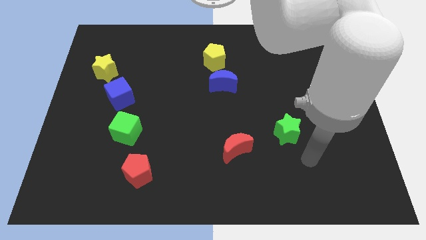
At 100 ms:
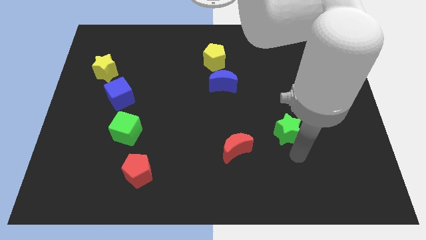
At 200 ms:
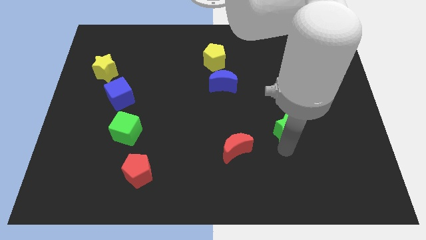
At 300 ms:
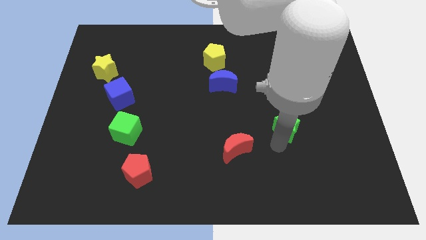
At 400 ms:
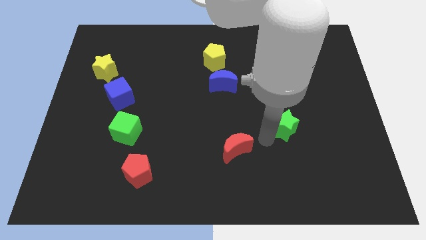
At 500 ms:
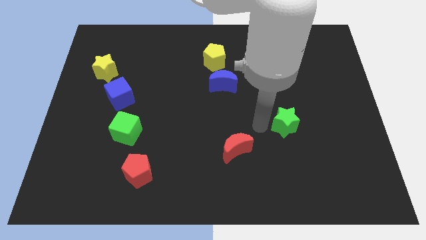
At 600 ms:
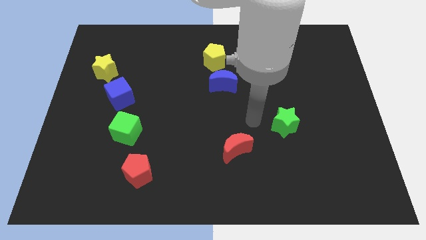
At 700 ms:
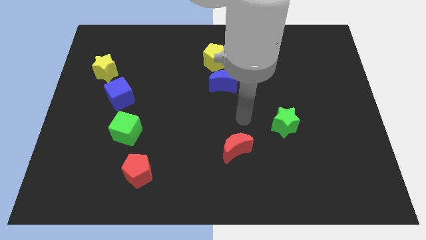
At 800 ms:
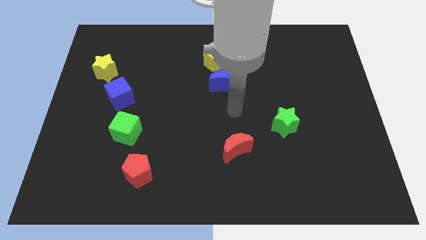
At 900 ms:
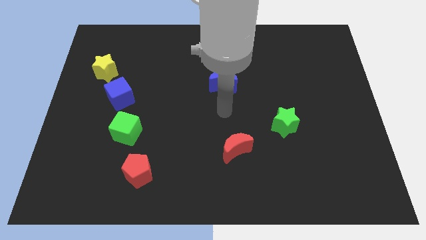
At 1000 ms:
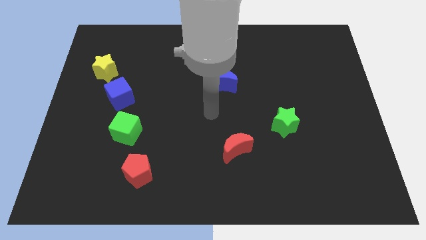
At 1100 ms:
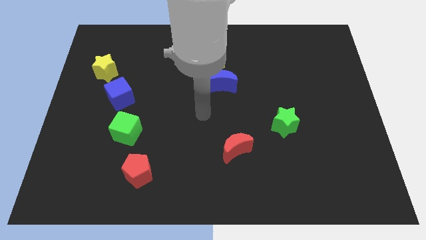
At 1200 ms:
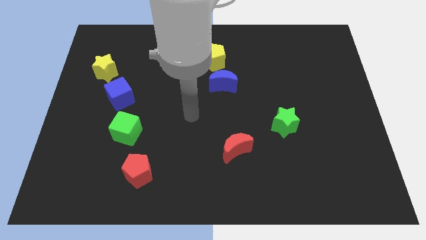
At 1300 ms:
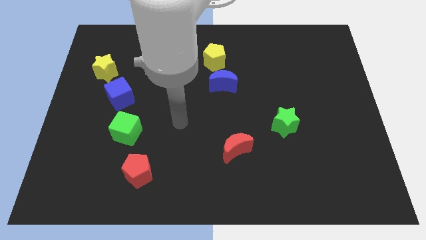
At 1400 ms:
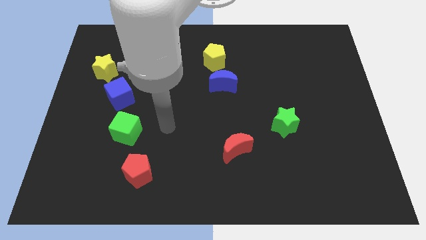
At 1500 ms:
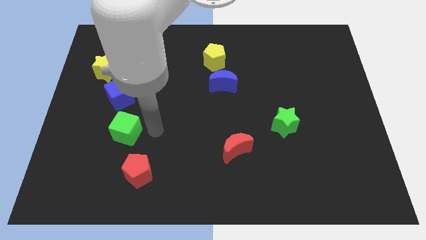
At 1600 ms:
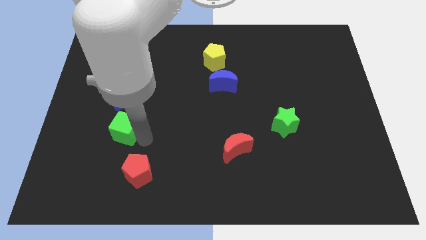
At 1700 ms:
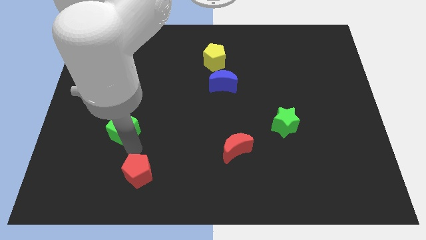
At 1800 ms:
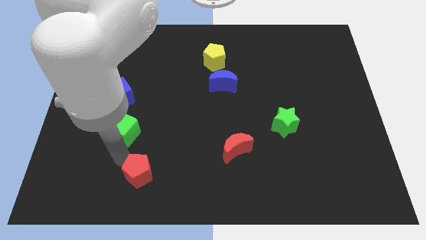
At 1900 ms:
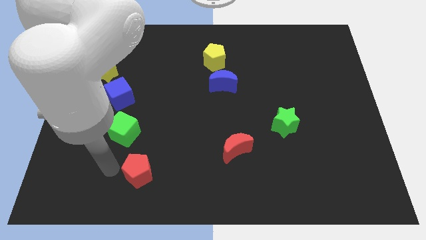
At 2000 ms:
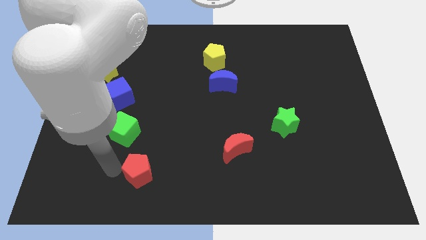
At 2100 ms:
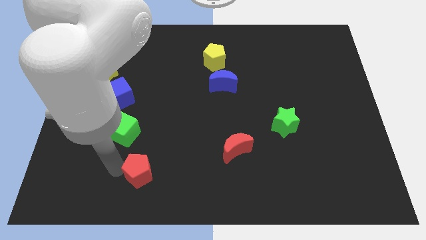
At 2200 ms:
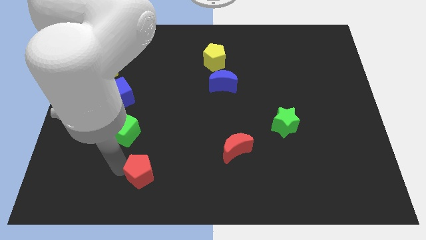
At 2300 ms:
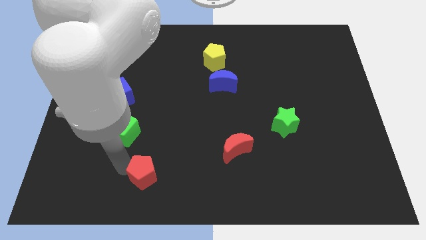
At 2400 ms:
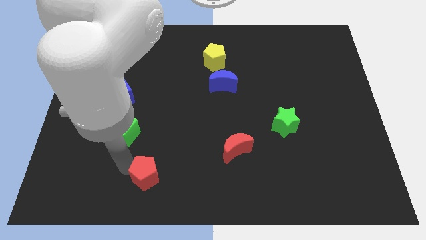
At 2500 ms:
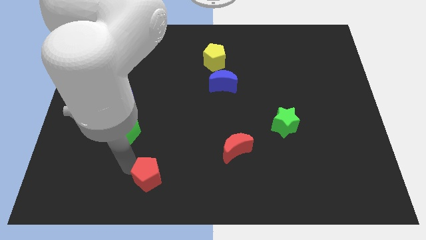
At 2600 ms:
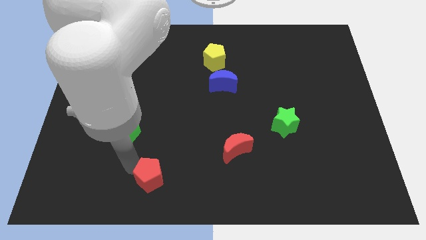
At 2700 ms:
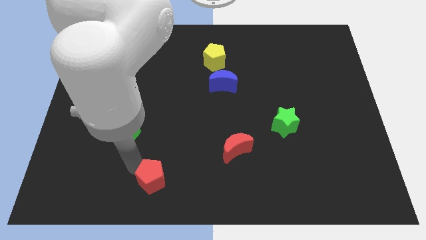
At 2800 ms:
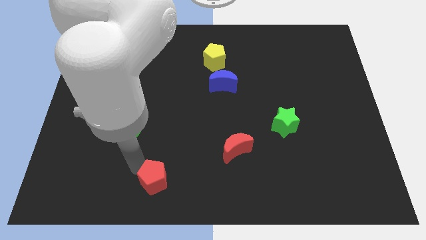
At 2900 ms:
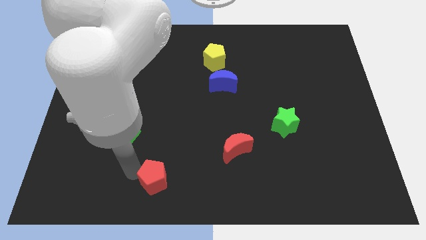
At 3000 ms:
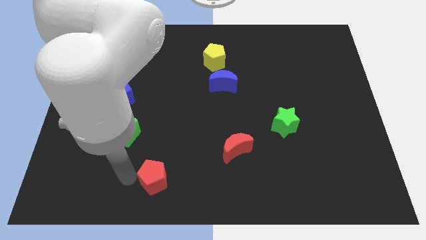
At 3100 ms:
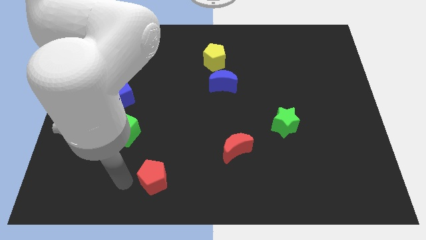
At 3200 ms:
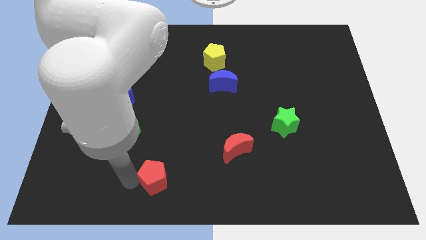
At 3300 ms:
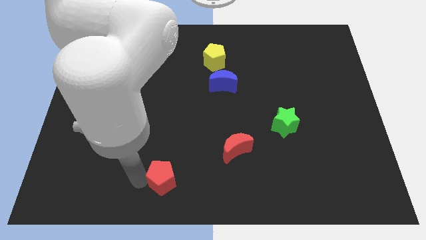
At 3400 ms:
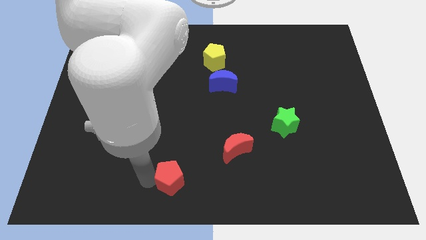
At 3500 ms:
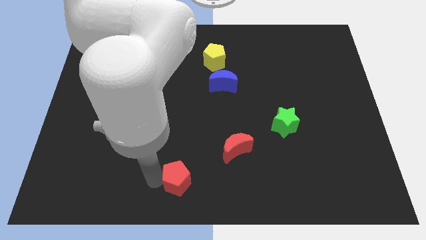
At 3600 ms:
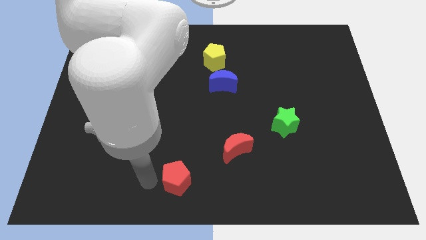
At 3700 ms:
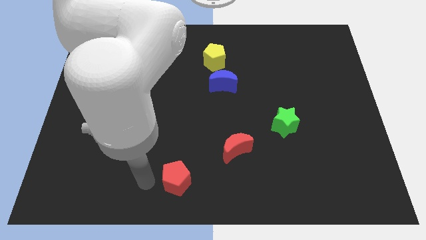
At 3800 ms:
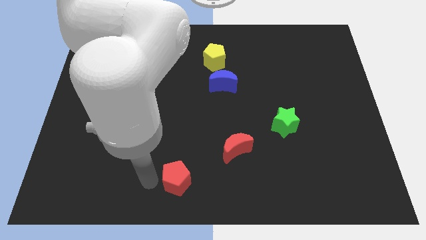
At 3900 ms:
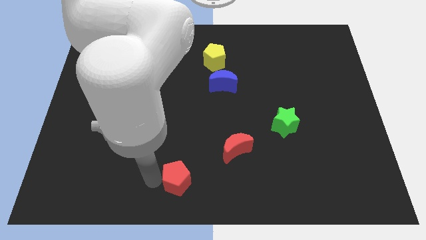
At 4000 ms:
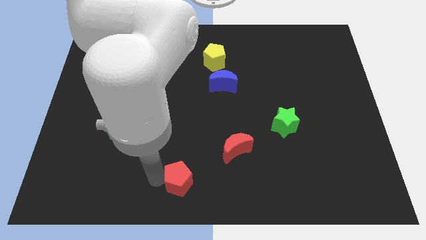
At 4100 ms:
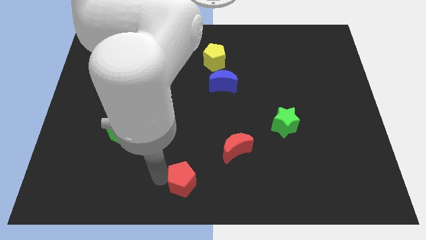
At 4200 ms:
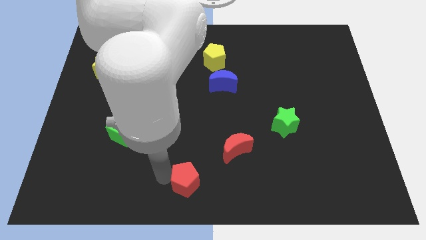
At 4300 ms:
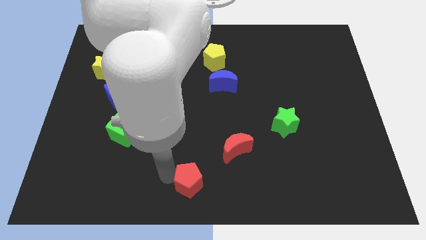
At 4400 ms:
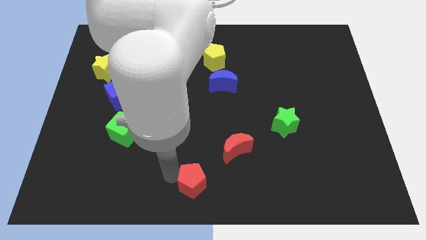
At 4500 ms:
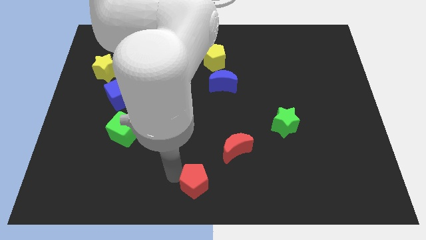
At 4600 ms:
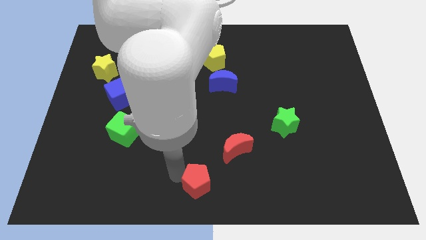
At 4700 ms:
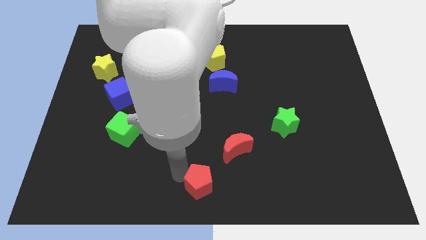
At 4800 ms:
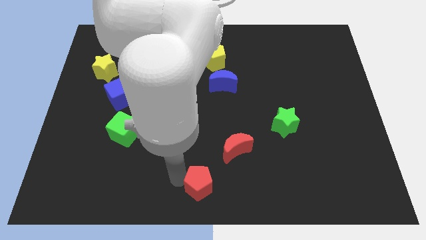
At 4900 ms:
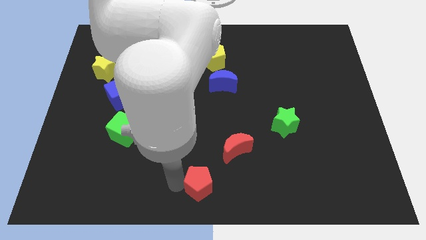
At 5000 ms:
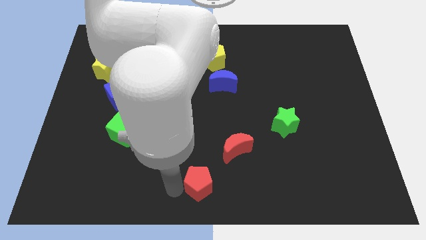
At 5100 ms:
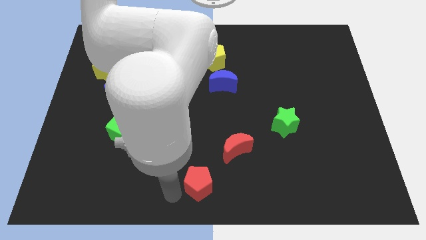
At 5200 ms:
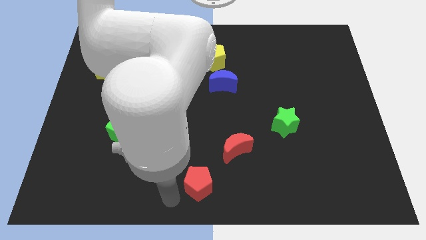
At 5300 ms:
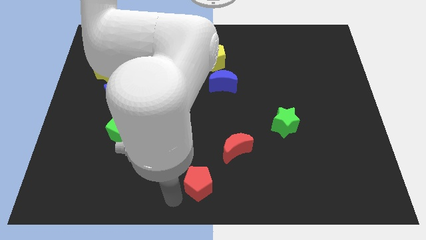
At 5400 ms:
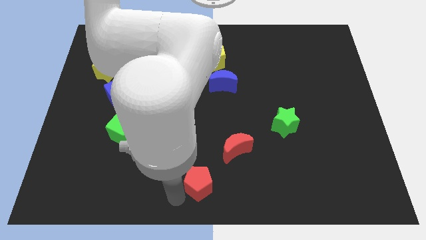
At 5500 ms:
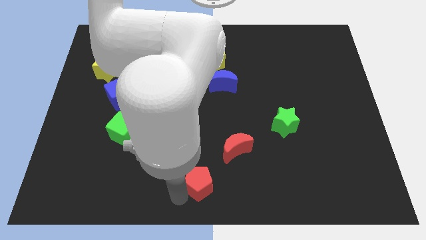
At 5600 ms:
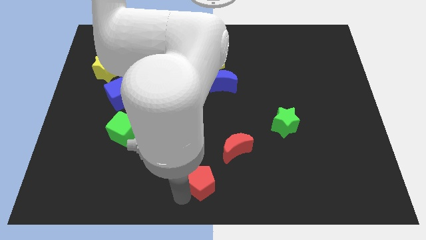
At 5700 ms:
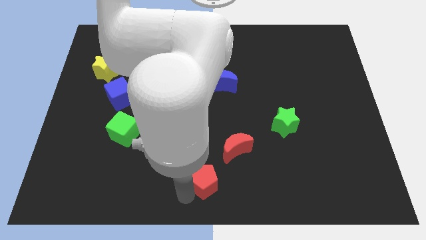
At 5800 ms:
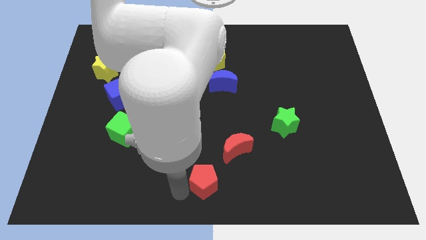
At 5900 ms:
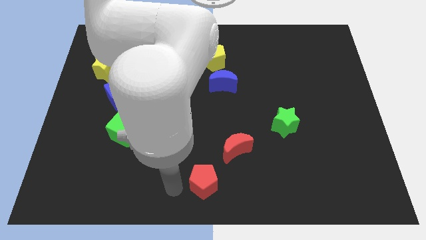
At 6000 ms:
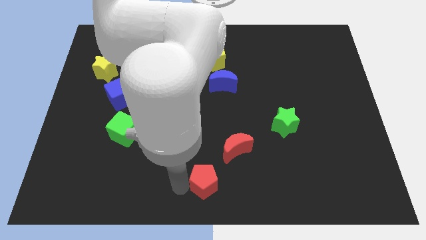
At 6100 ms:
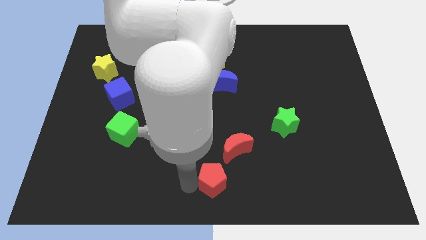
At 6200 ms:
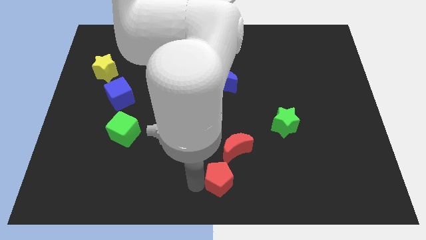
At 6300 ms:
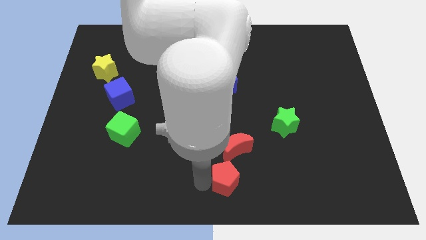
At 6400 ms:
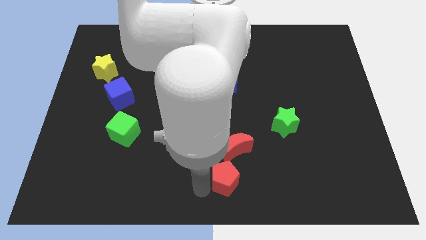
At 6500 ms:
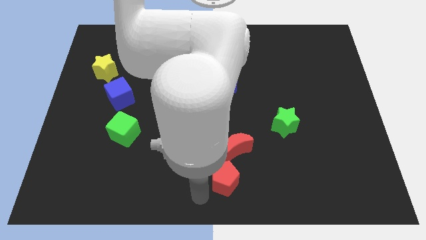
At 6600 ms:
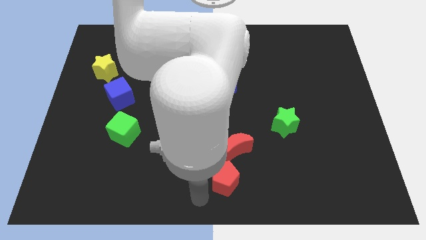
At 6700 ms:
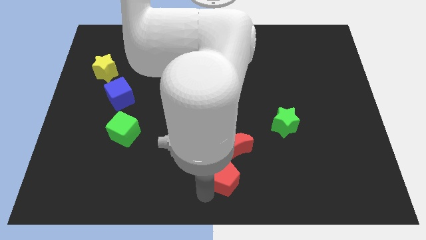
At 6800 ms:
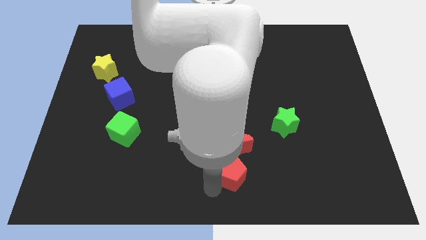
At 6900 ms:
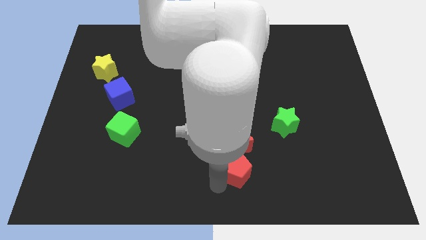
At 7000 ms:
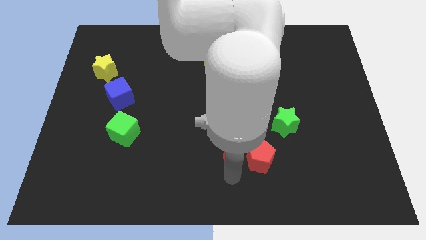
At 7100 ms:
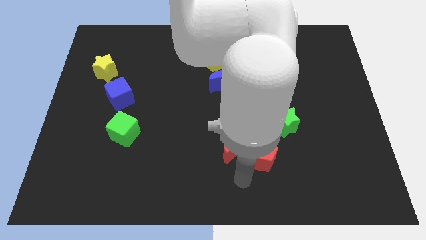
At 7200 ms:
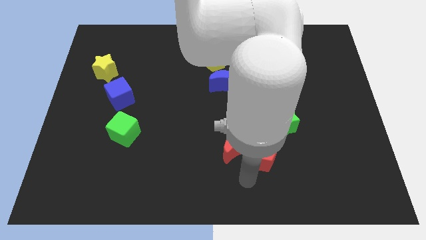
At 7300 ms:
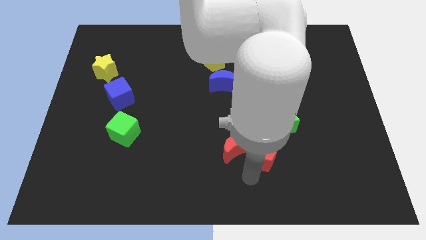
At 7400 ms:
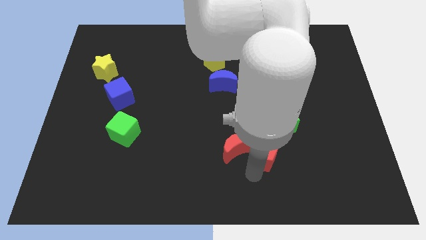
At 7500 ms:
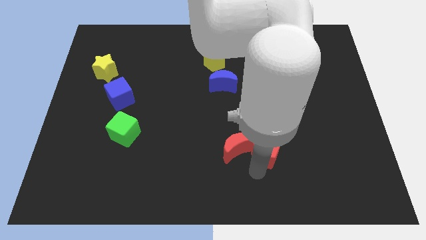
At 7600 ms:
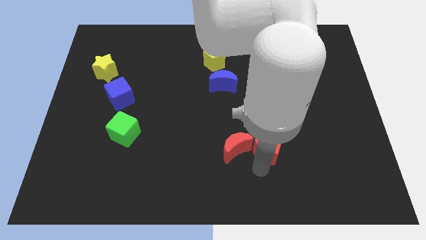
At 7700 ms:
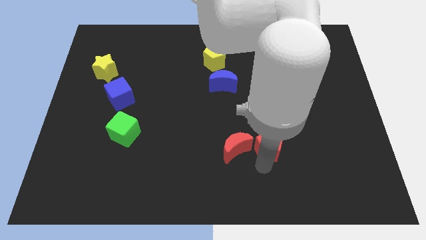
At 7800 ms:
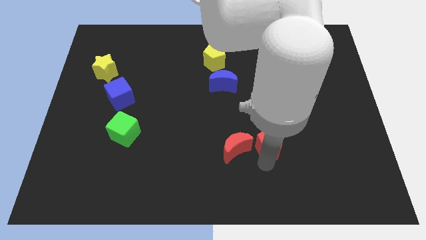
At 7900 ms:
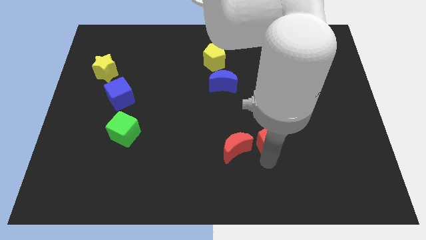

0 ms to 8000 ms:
push the red pentagon towards the green star
